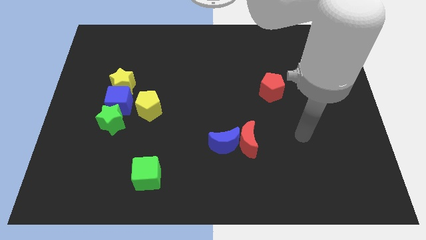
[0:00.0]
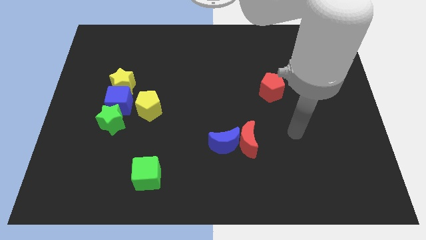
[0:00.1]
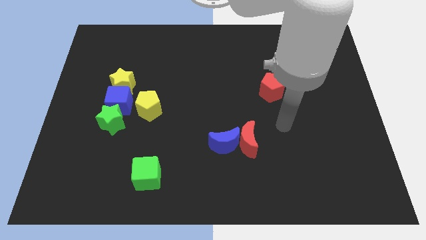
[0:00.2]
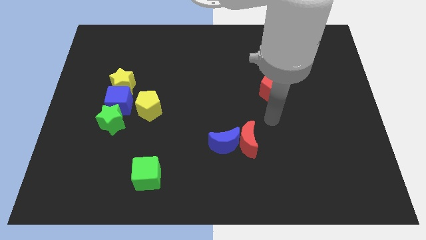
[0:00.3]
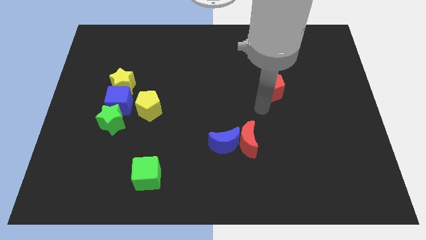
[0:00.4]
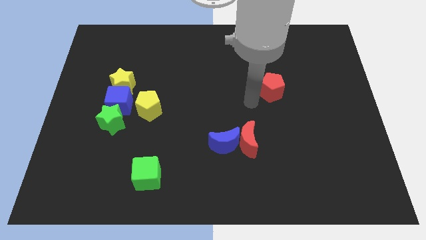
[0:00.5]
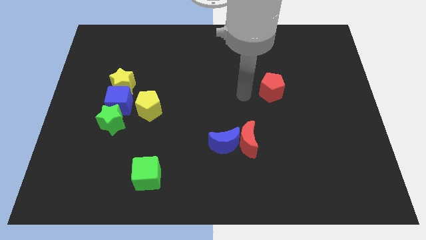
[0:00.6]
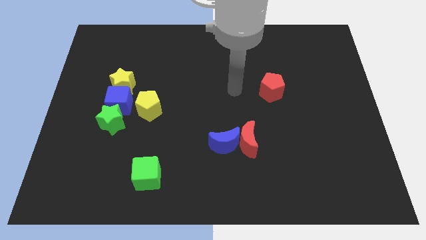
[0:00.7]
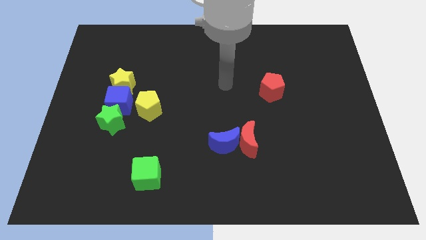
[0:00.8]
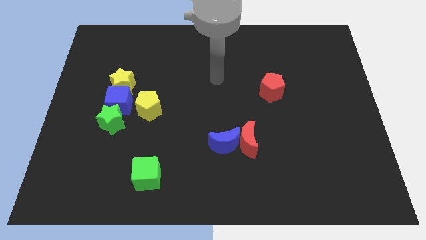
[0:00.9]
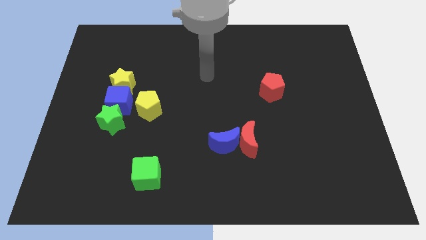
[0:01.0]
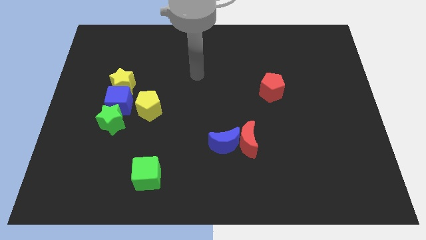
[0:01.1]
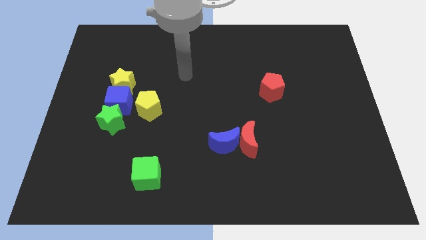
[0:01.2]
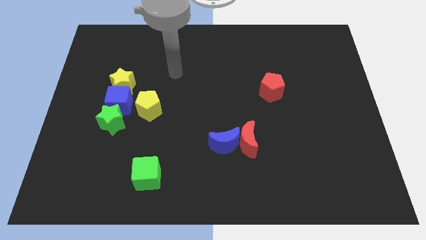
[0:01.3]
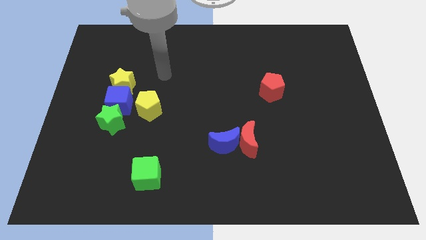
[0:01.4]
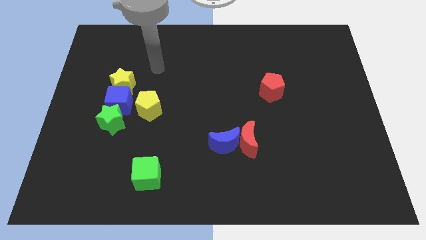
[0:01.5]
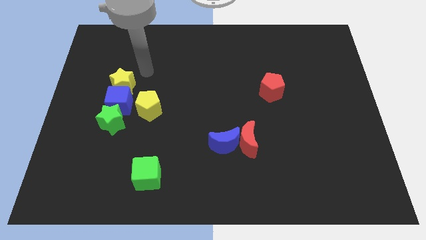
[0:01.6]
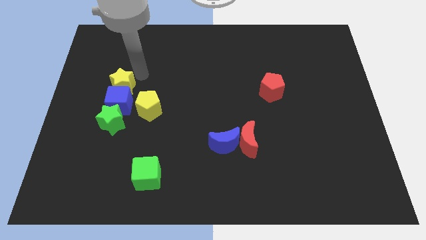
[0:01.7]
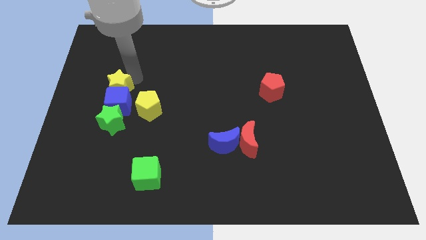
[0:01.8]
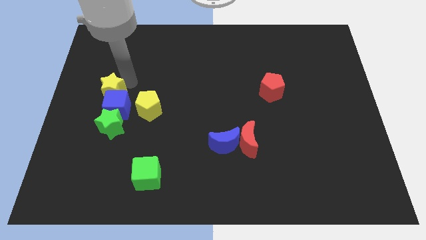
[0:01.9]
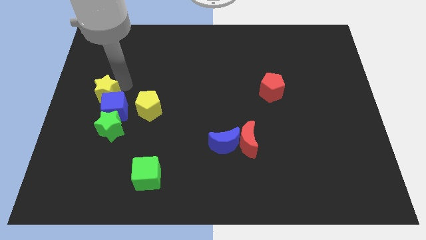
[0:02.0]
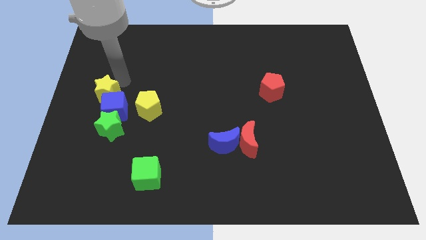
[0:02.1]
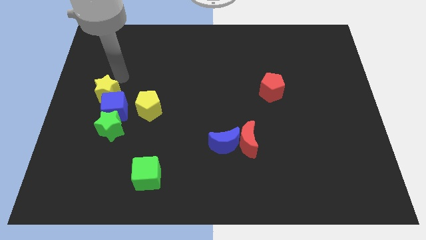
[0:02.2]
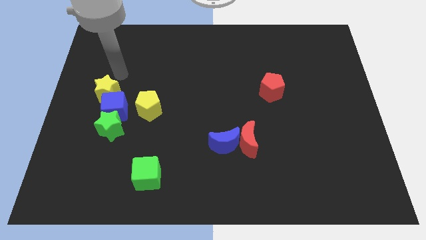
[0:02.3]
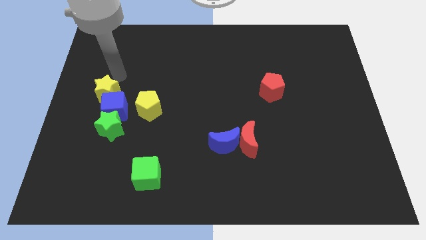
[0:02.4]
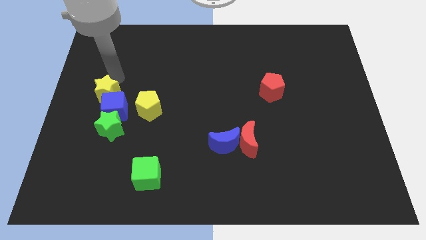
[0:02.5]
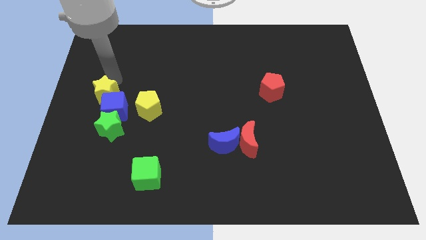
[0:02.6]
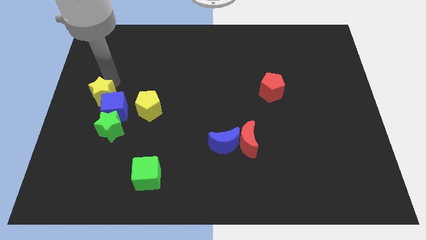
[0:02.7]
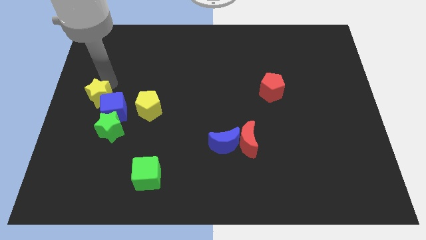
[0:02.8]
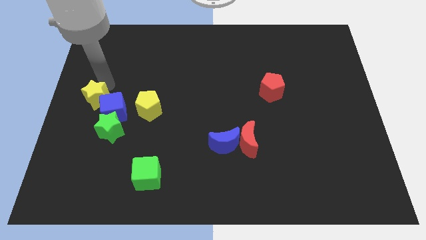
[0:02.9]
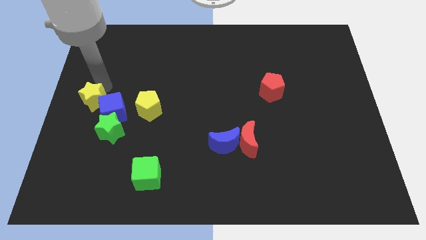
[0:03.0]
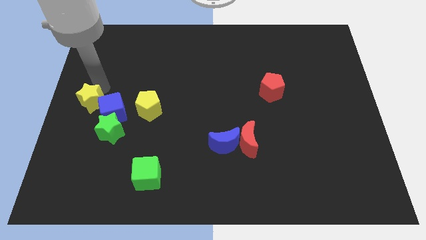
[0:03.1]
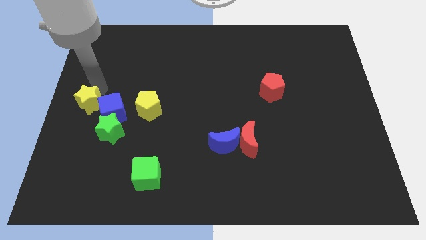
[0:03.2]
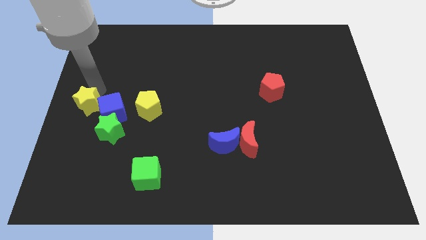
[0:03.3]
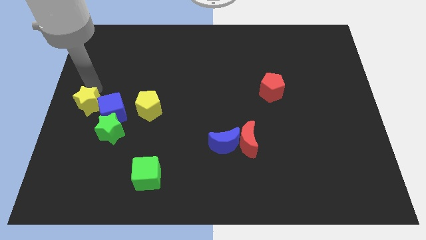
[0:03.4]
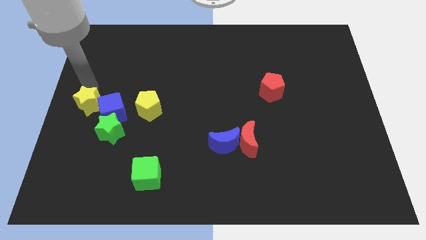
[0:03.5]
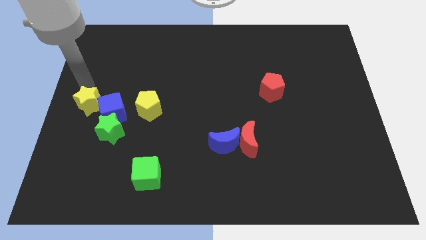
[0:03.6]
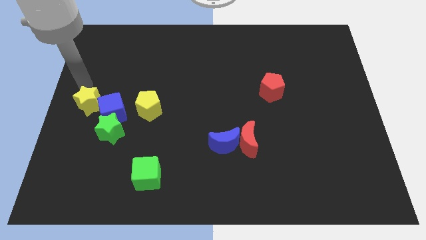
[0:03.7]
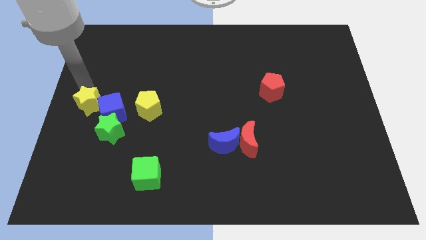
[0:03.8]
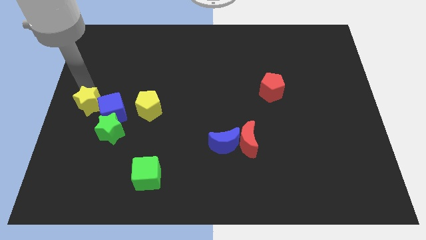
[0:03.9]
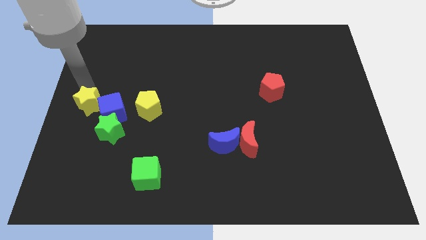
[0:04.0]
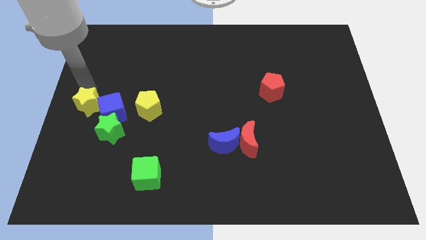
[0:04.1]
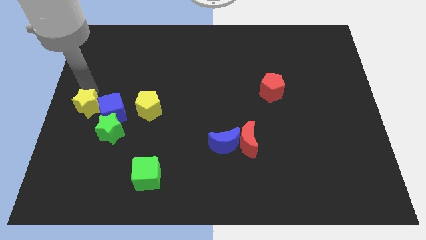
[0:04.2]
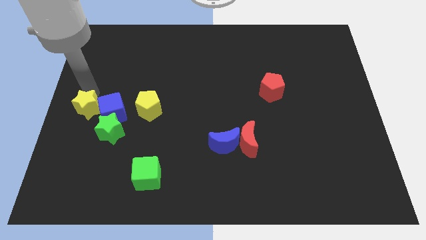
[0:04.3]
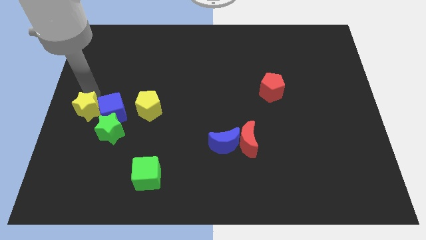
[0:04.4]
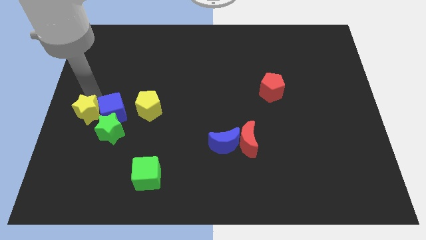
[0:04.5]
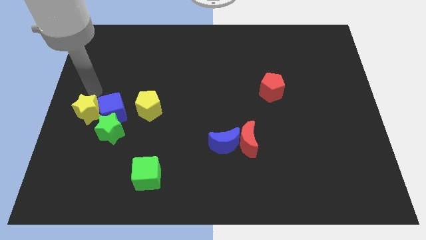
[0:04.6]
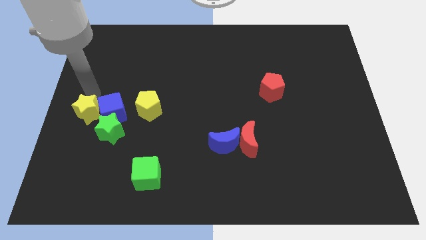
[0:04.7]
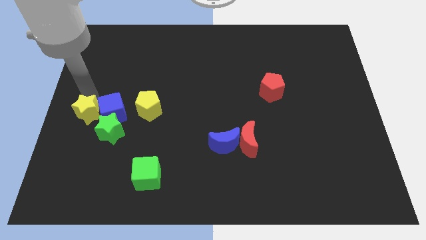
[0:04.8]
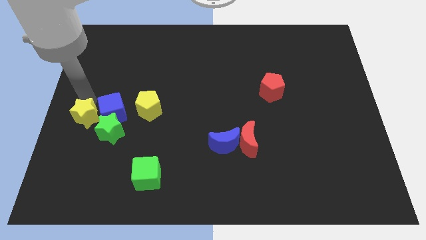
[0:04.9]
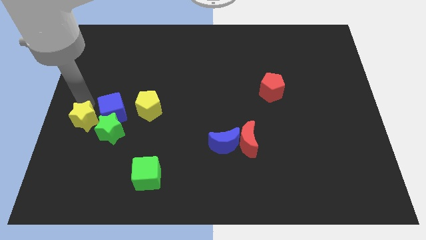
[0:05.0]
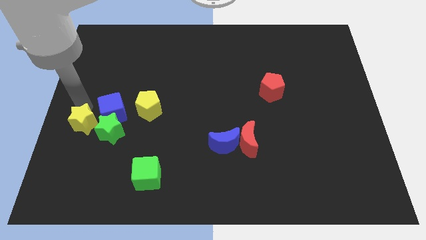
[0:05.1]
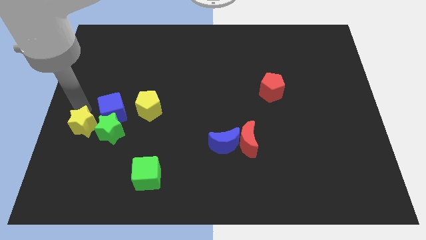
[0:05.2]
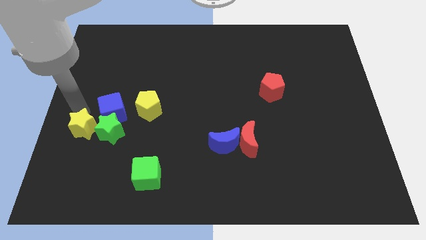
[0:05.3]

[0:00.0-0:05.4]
push the yellow star diagonally down and to the left of the green star

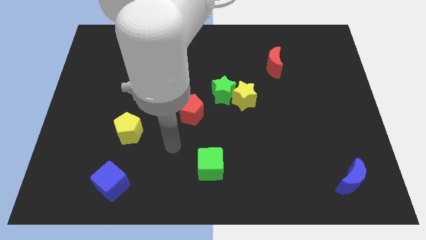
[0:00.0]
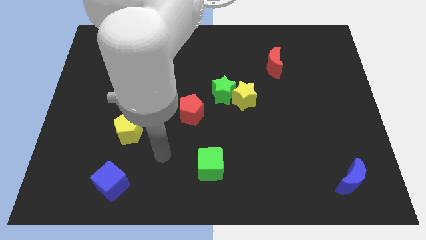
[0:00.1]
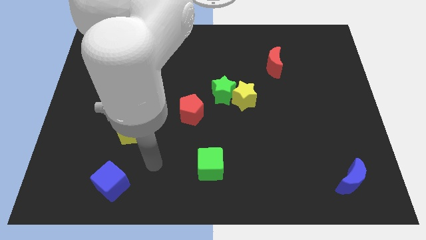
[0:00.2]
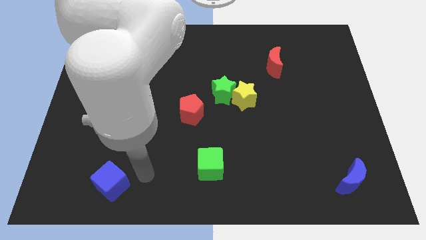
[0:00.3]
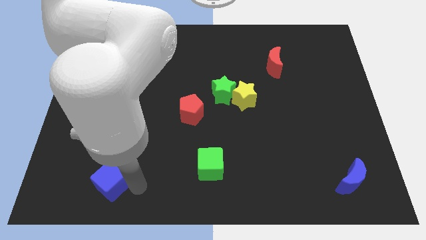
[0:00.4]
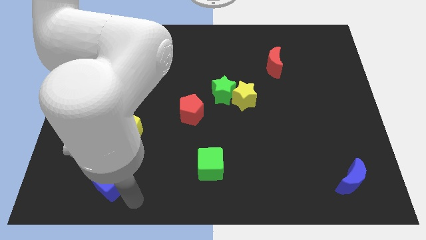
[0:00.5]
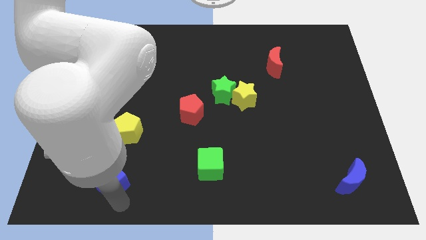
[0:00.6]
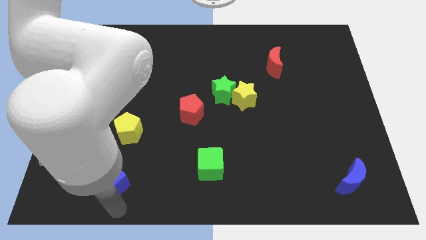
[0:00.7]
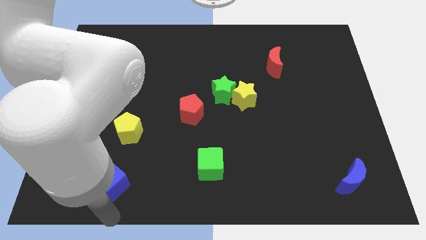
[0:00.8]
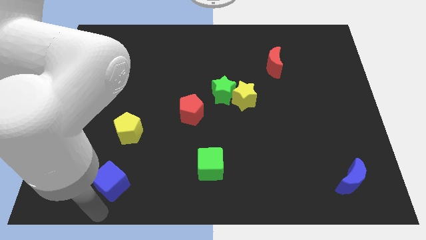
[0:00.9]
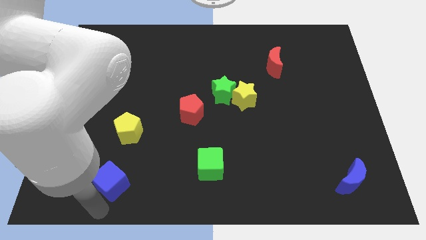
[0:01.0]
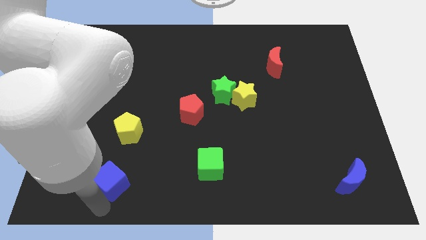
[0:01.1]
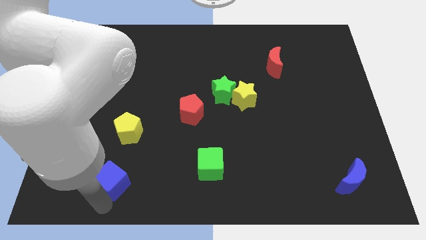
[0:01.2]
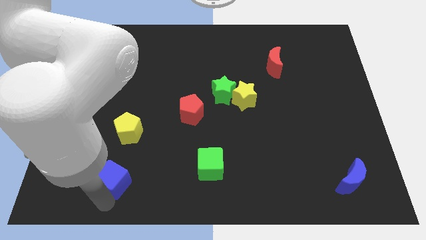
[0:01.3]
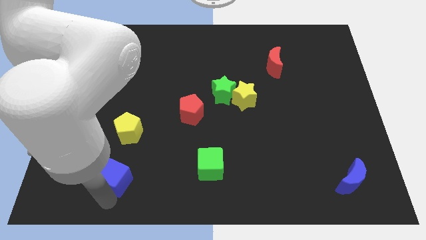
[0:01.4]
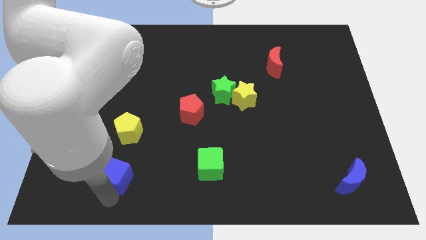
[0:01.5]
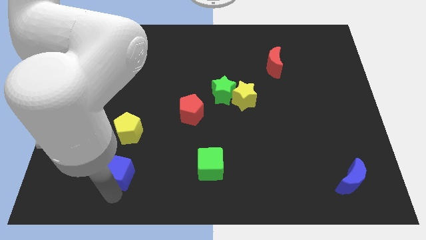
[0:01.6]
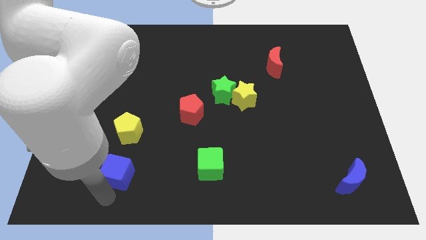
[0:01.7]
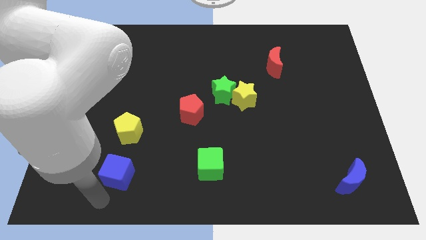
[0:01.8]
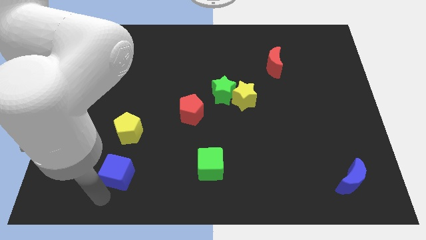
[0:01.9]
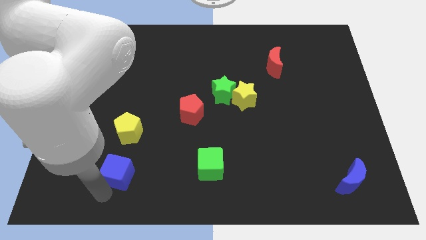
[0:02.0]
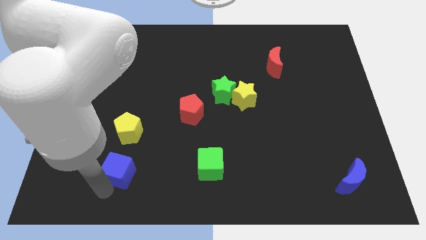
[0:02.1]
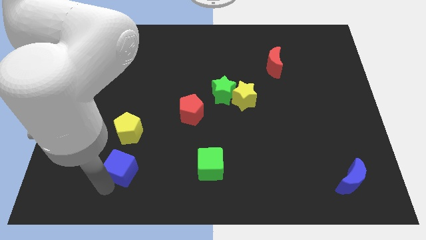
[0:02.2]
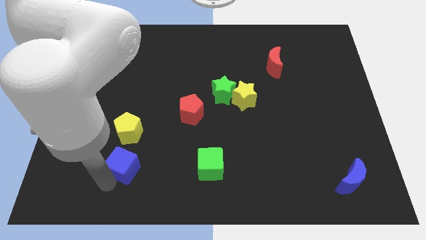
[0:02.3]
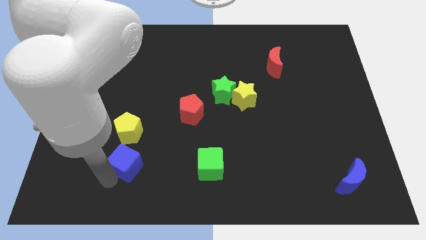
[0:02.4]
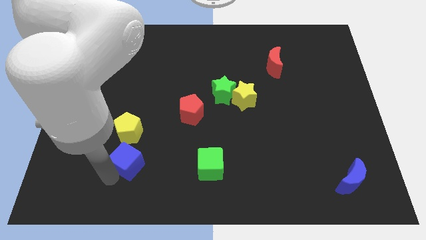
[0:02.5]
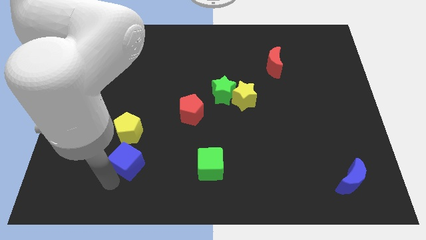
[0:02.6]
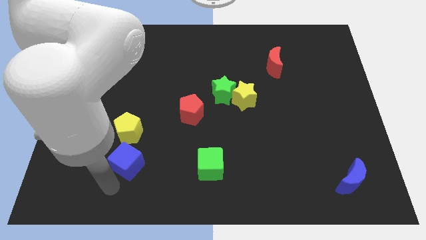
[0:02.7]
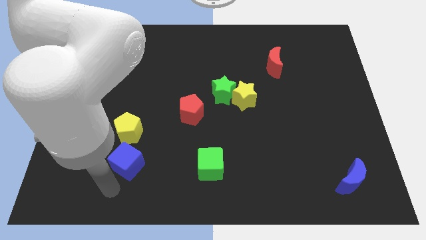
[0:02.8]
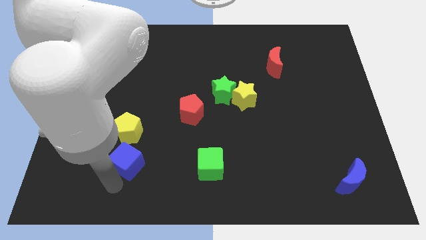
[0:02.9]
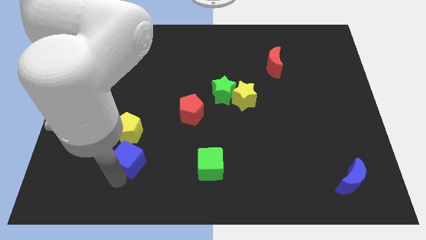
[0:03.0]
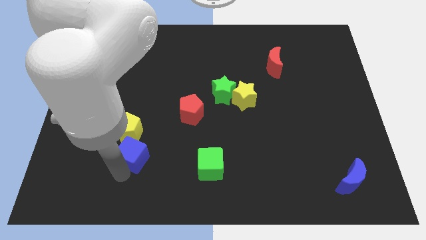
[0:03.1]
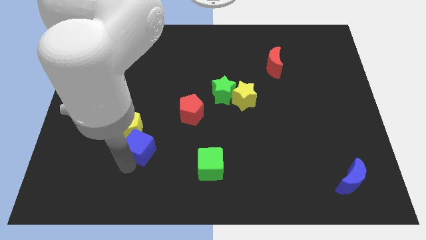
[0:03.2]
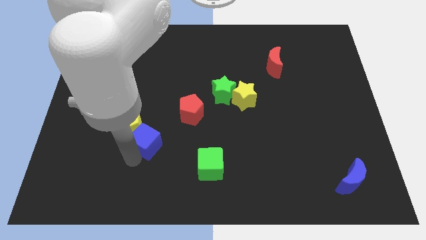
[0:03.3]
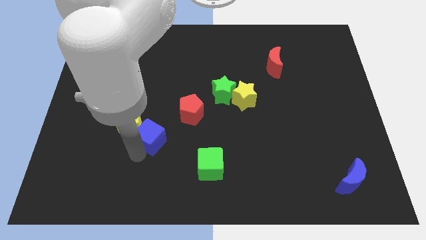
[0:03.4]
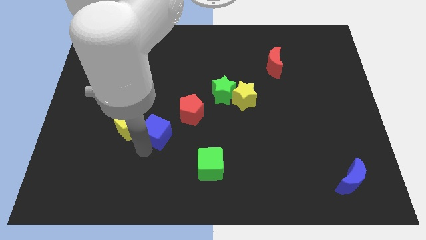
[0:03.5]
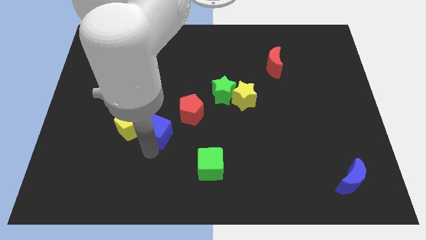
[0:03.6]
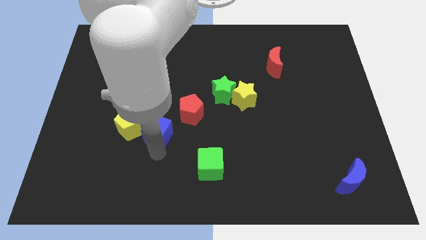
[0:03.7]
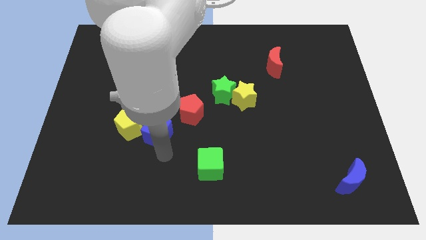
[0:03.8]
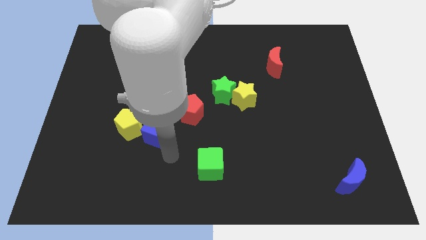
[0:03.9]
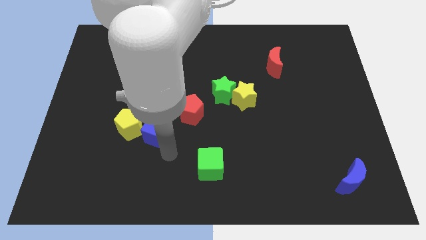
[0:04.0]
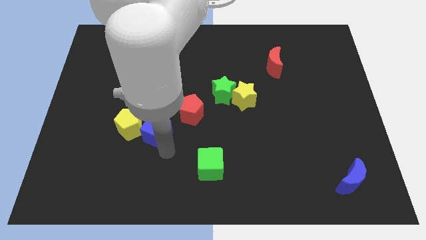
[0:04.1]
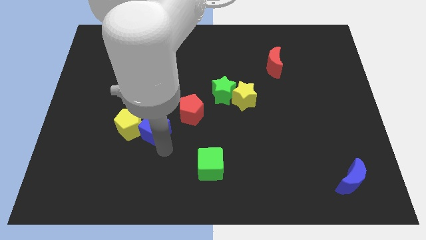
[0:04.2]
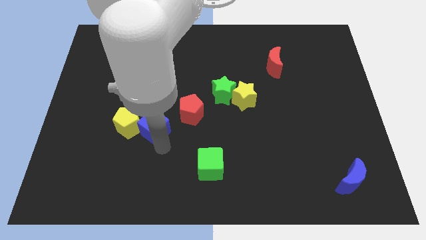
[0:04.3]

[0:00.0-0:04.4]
push the blue cube left of the red pentagon
